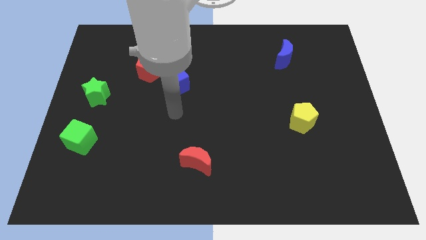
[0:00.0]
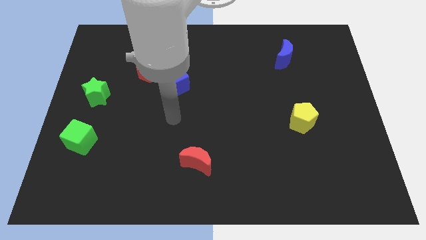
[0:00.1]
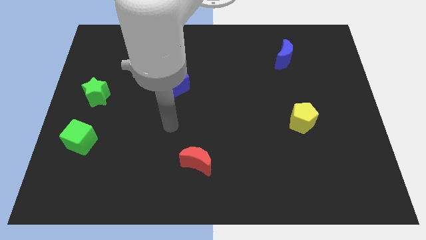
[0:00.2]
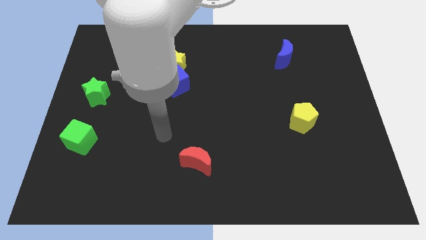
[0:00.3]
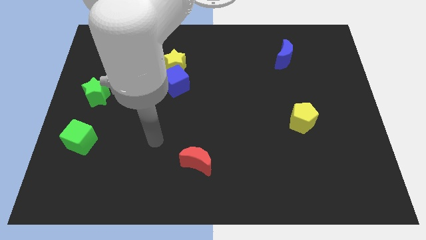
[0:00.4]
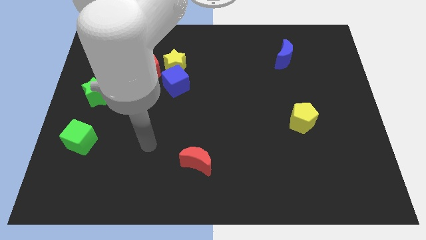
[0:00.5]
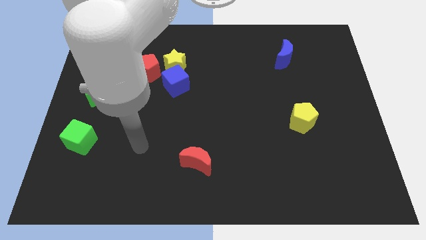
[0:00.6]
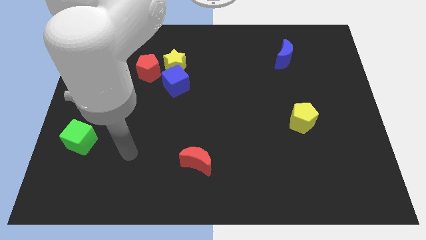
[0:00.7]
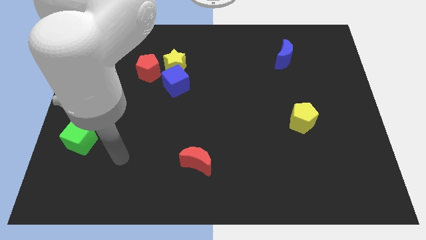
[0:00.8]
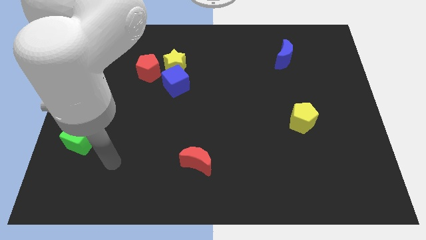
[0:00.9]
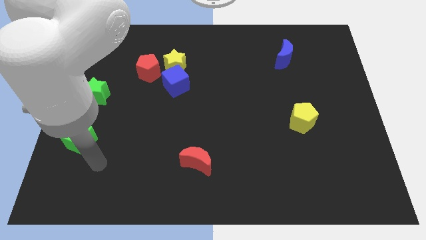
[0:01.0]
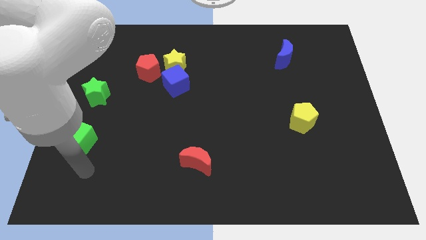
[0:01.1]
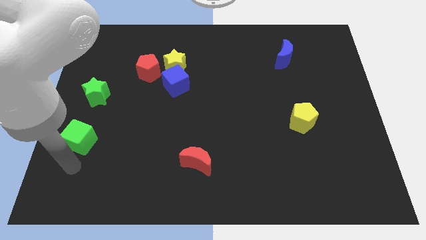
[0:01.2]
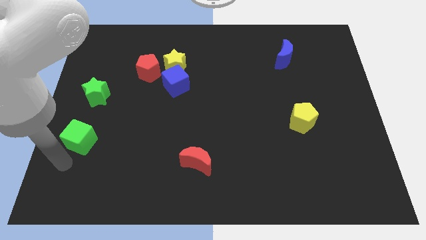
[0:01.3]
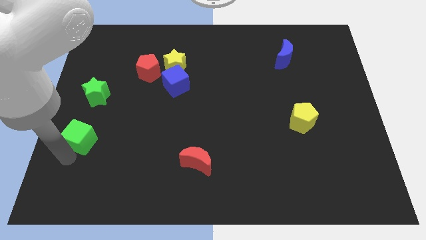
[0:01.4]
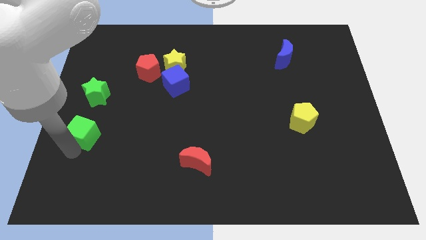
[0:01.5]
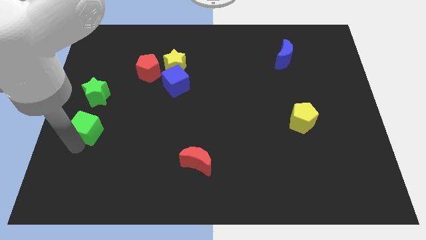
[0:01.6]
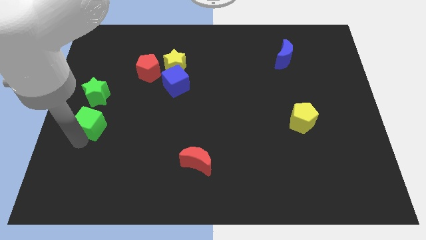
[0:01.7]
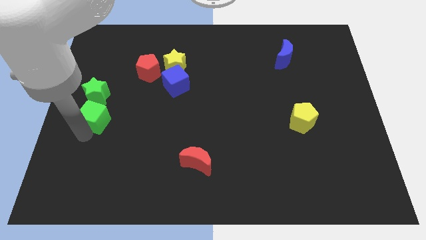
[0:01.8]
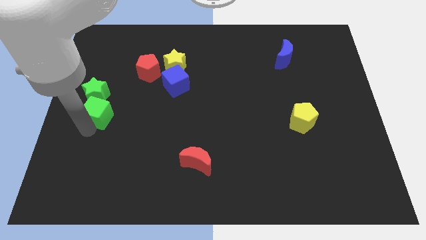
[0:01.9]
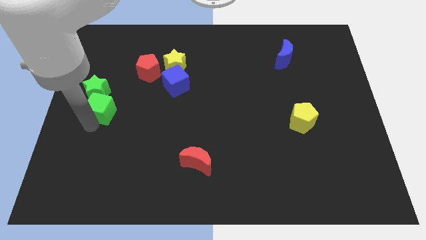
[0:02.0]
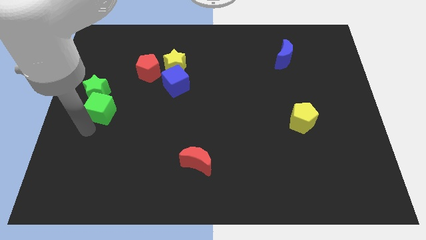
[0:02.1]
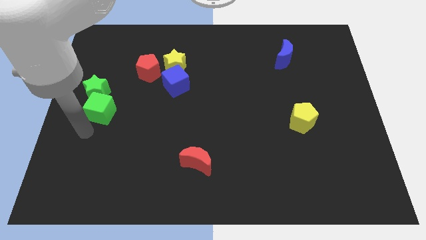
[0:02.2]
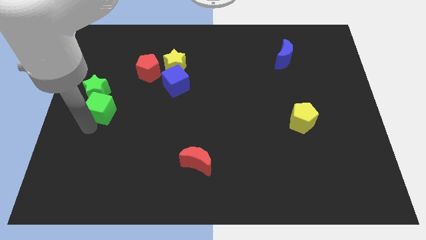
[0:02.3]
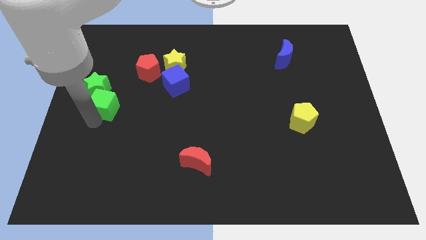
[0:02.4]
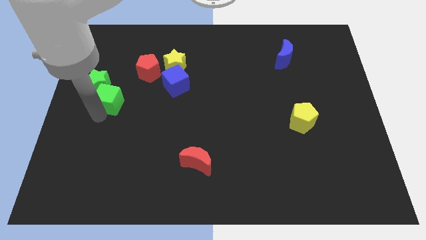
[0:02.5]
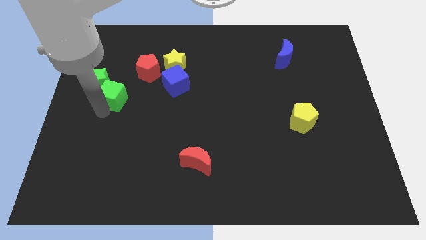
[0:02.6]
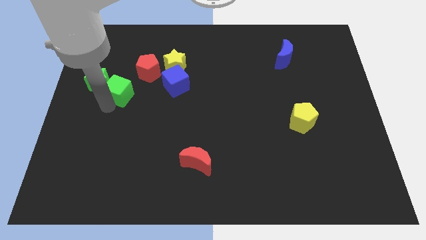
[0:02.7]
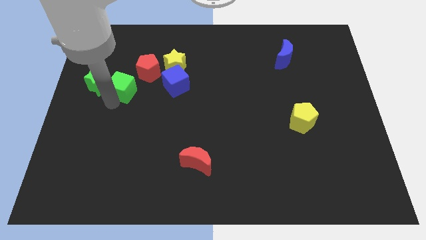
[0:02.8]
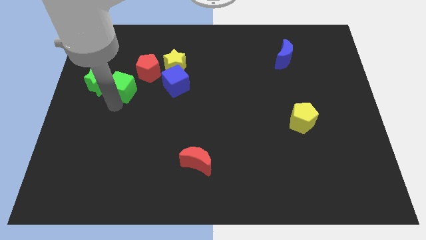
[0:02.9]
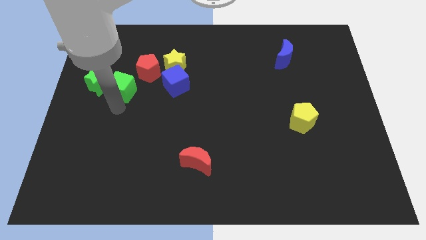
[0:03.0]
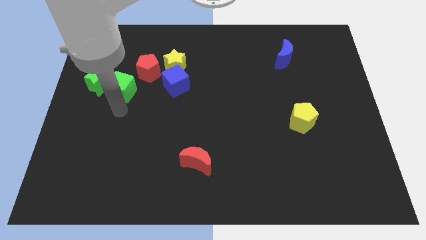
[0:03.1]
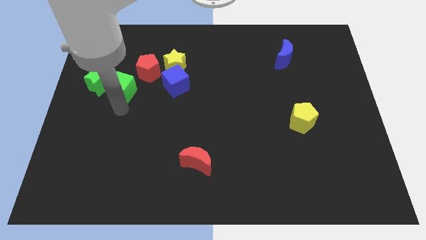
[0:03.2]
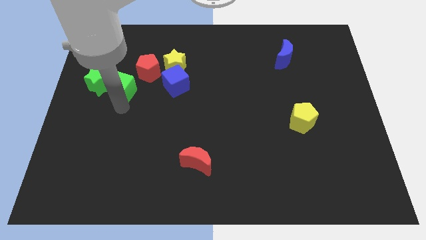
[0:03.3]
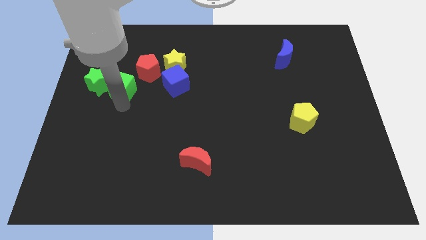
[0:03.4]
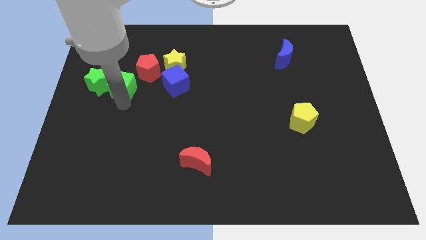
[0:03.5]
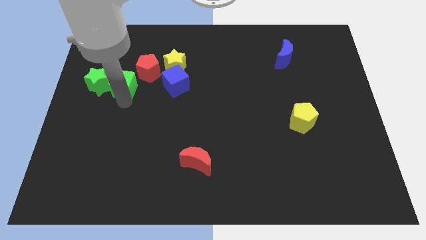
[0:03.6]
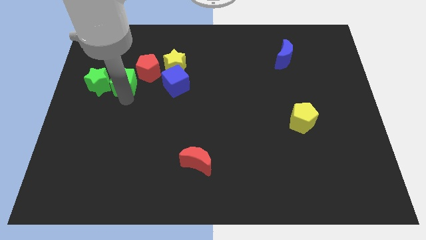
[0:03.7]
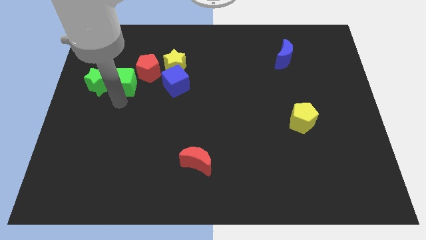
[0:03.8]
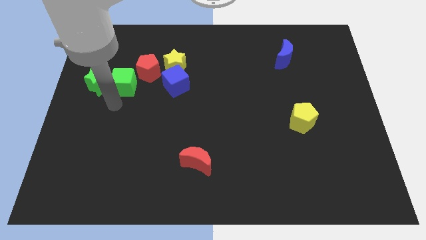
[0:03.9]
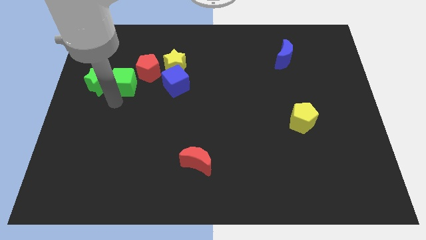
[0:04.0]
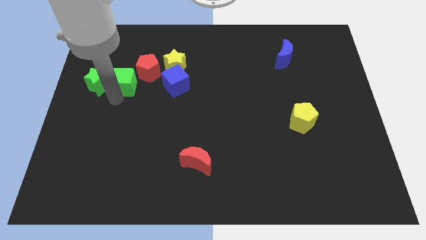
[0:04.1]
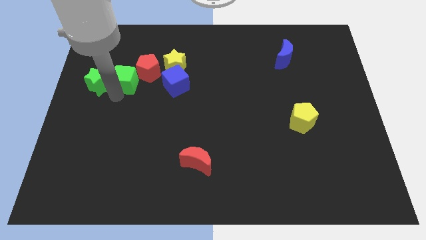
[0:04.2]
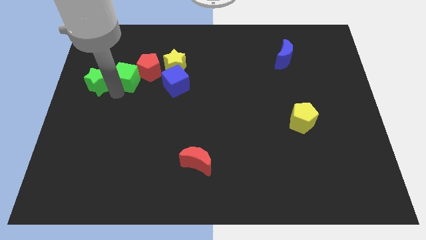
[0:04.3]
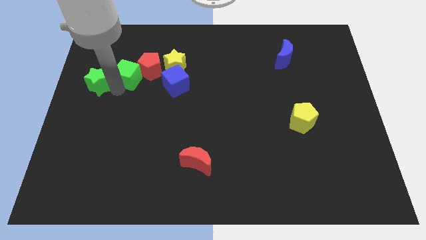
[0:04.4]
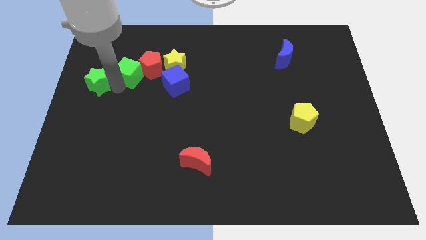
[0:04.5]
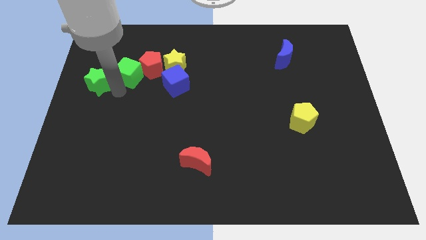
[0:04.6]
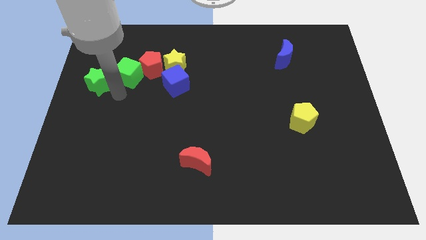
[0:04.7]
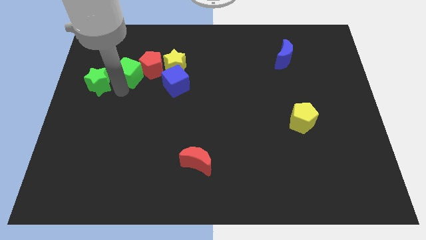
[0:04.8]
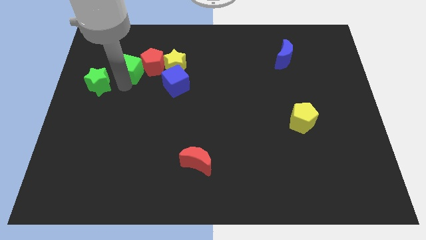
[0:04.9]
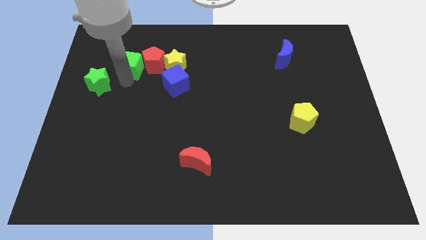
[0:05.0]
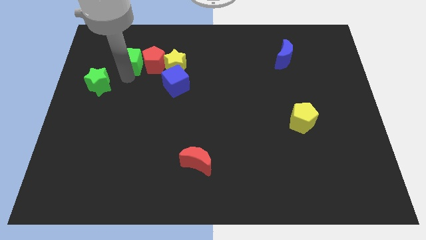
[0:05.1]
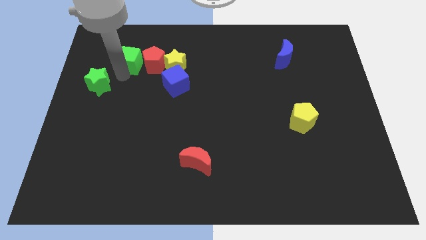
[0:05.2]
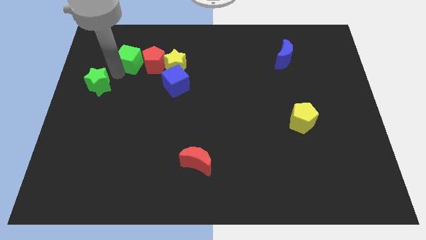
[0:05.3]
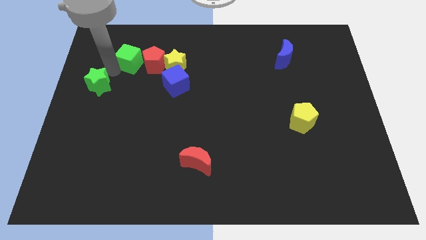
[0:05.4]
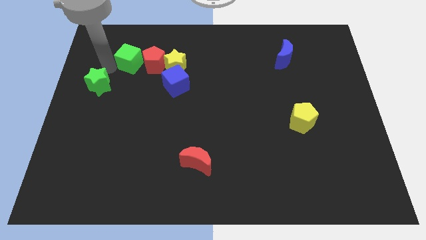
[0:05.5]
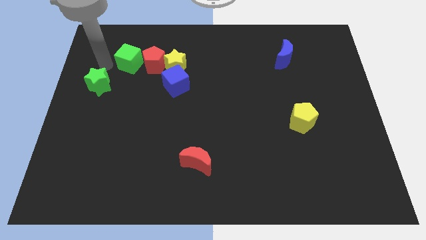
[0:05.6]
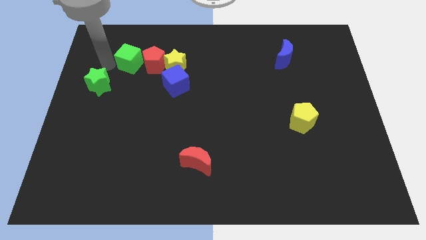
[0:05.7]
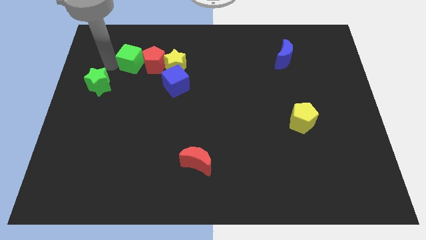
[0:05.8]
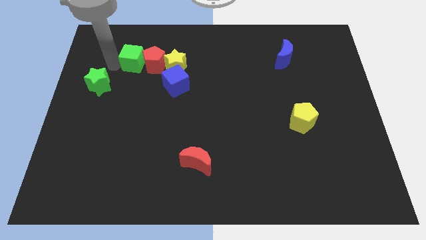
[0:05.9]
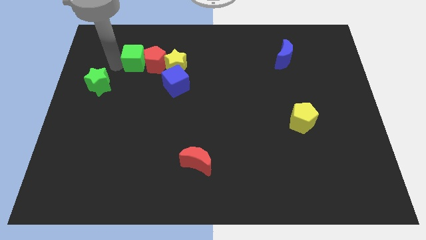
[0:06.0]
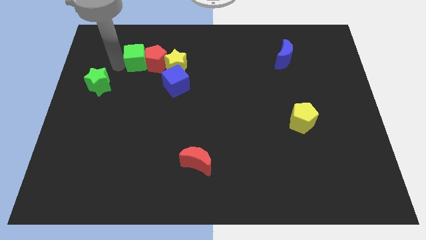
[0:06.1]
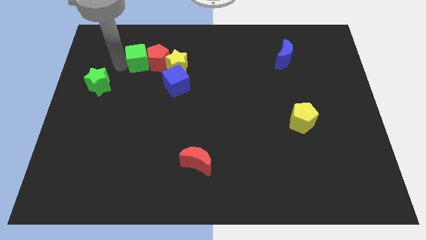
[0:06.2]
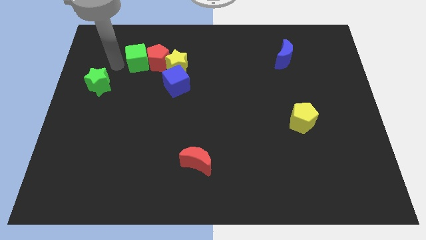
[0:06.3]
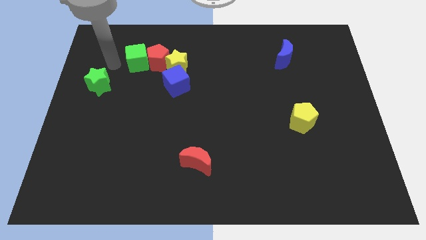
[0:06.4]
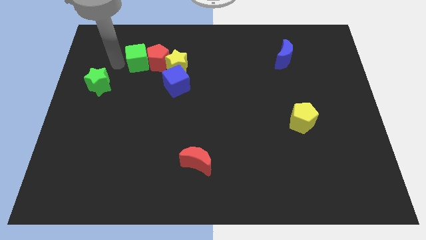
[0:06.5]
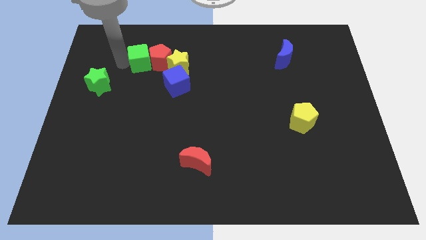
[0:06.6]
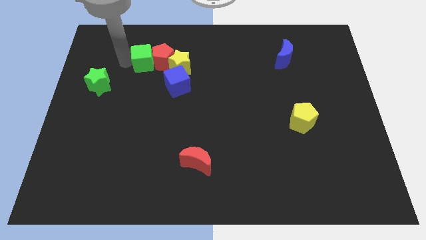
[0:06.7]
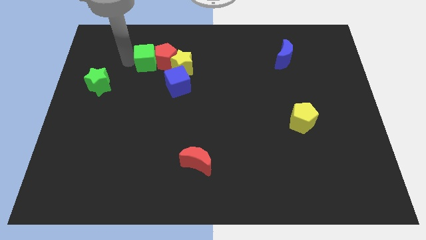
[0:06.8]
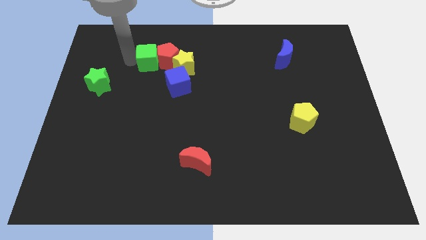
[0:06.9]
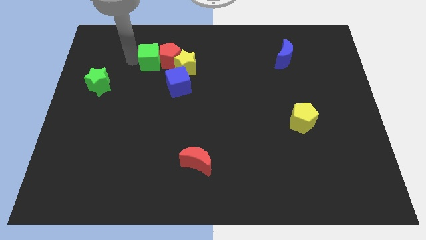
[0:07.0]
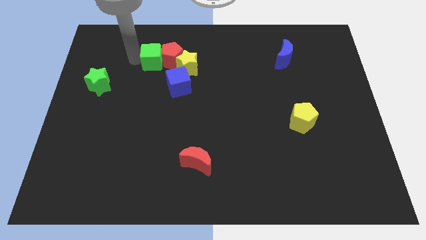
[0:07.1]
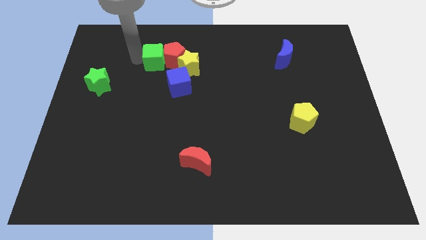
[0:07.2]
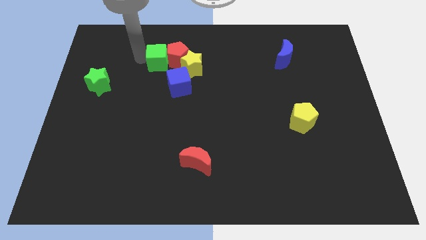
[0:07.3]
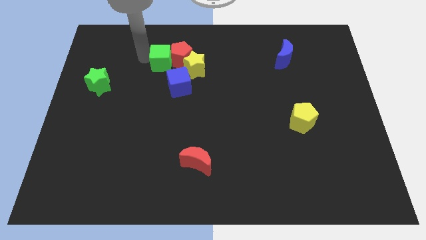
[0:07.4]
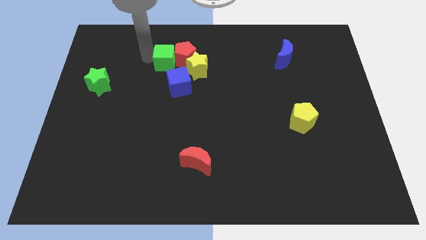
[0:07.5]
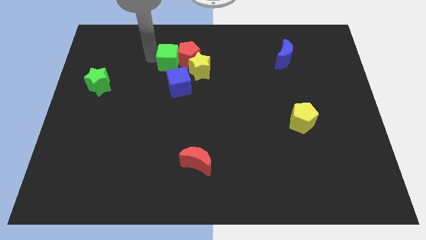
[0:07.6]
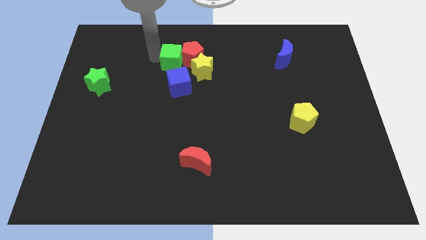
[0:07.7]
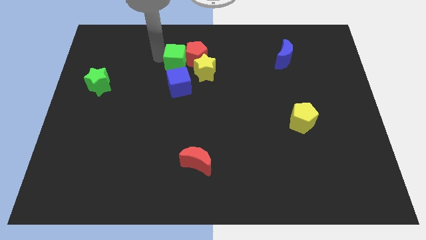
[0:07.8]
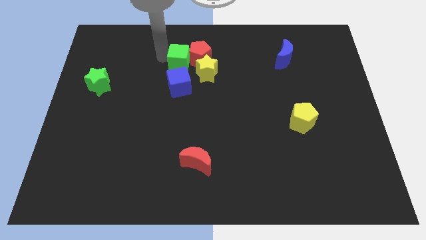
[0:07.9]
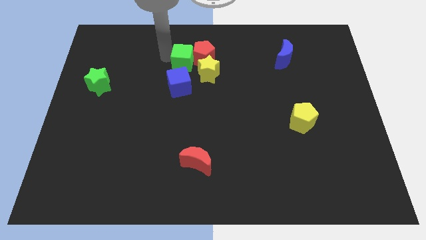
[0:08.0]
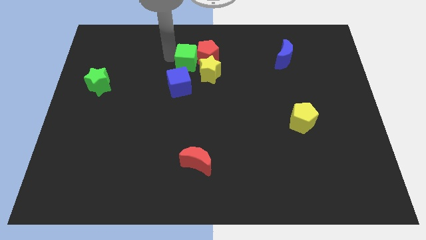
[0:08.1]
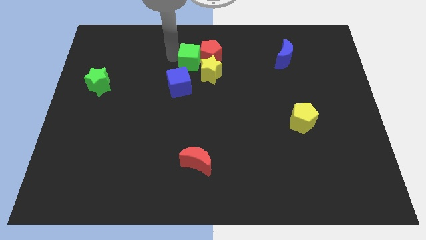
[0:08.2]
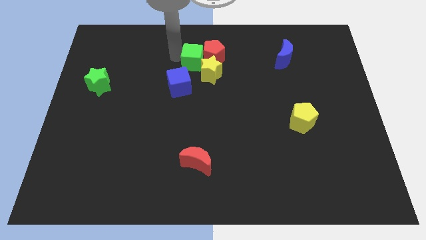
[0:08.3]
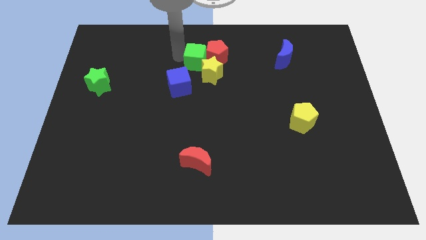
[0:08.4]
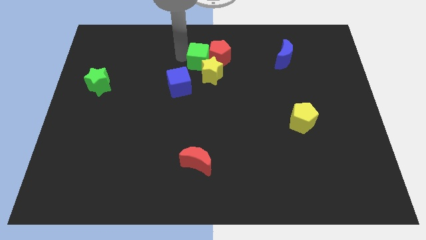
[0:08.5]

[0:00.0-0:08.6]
put the green cube towards the yellow star
